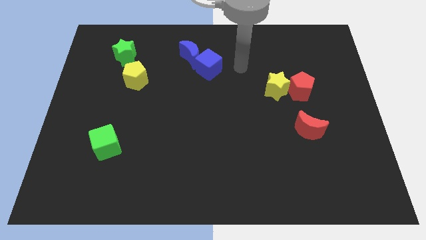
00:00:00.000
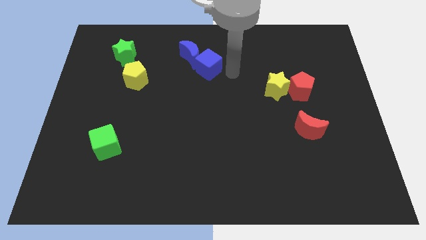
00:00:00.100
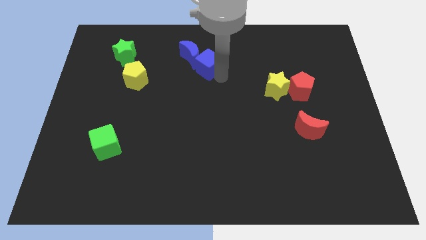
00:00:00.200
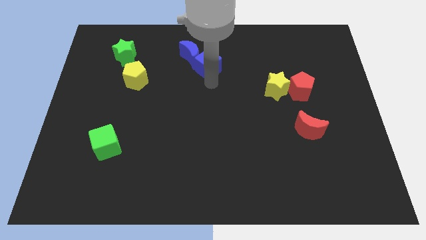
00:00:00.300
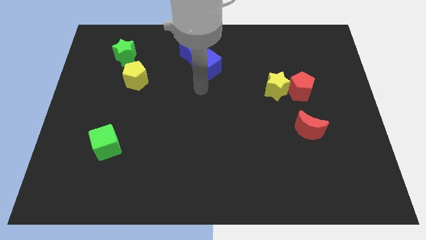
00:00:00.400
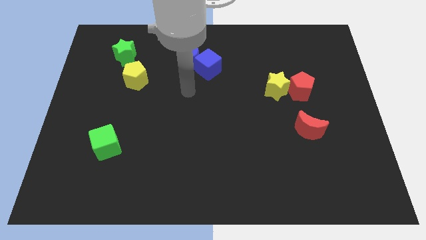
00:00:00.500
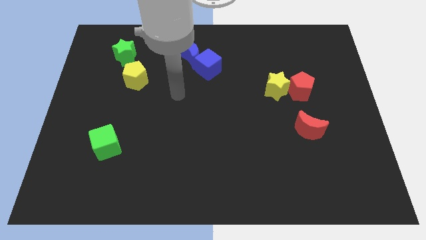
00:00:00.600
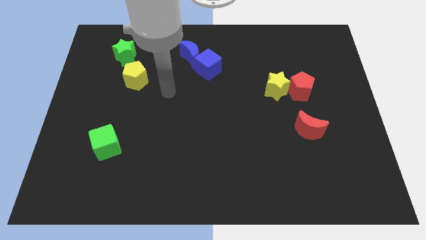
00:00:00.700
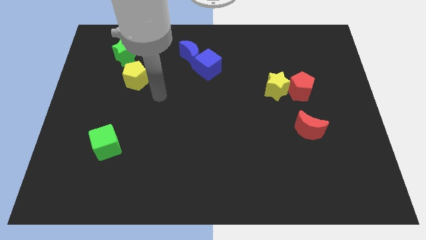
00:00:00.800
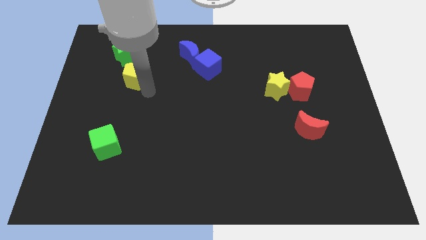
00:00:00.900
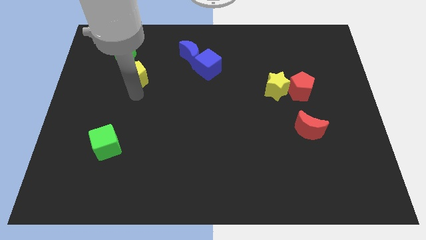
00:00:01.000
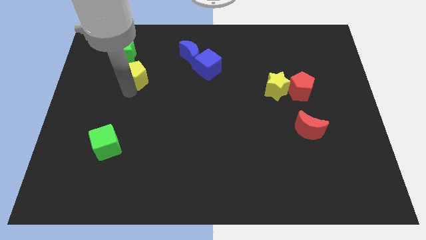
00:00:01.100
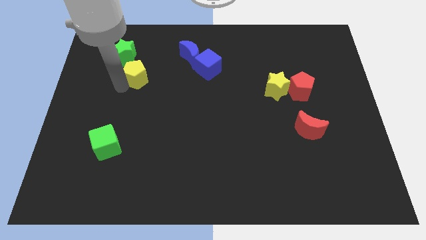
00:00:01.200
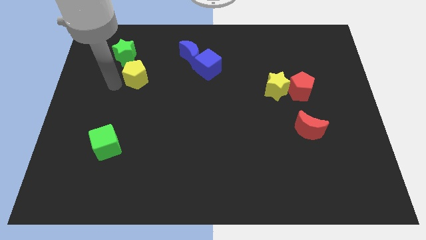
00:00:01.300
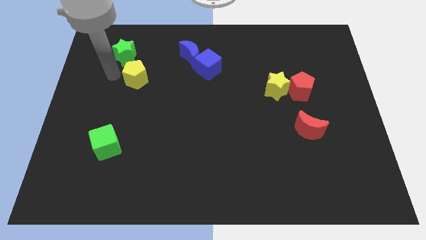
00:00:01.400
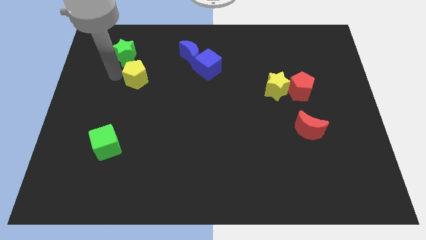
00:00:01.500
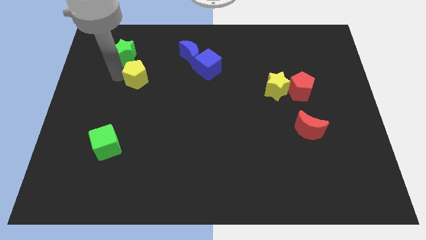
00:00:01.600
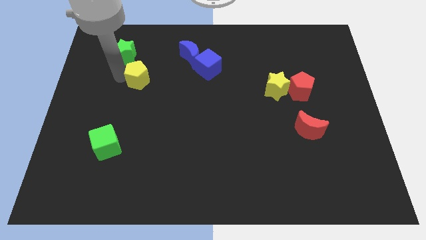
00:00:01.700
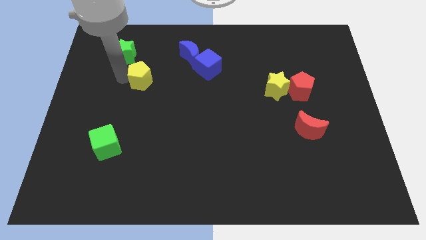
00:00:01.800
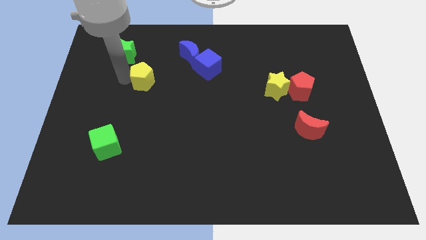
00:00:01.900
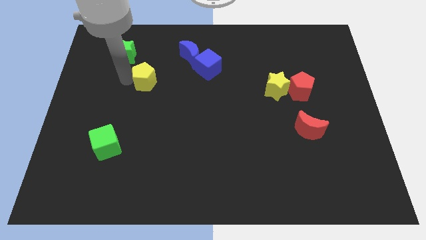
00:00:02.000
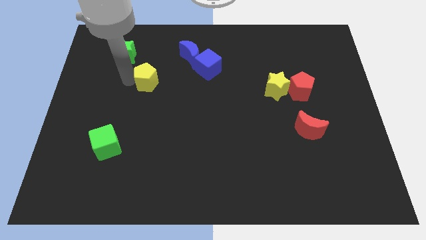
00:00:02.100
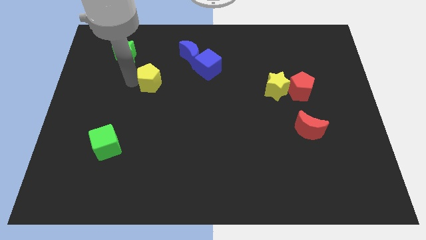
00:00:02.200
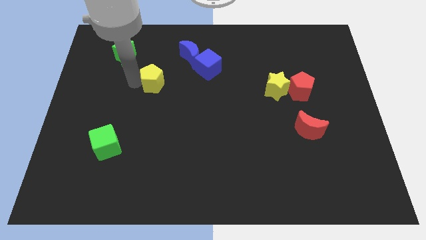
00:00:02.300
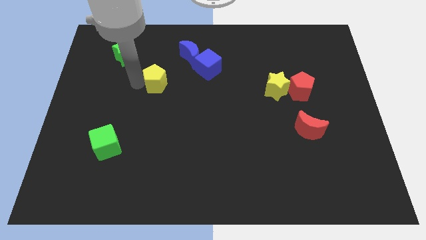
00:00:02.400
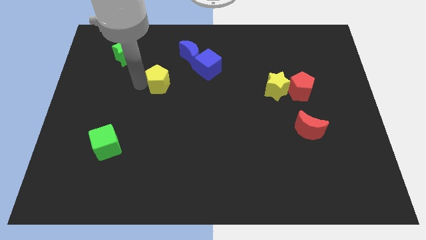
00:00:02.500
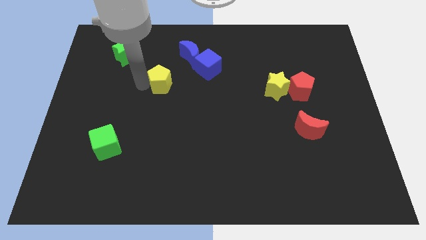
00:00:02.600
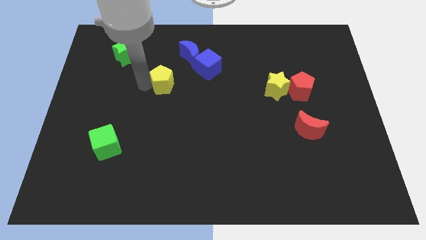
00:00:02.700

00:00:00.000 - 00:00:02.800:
slightly push the yellow pentagon to the right

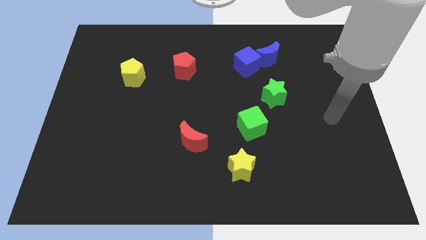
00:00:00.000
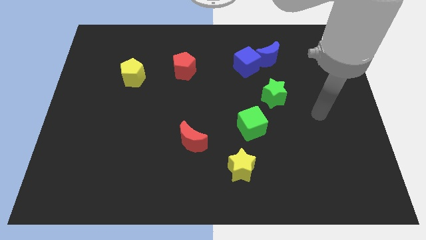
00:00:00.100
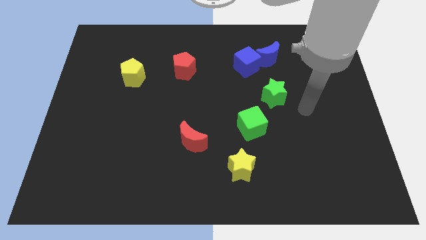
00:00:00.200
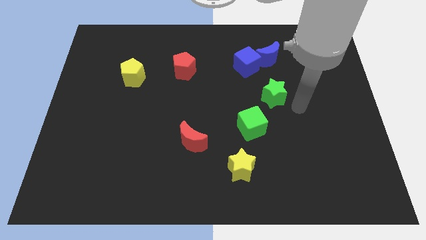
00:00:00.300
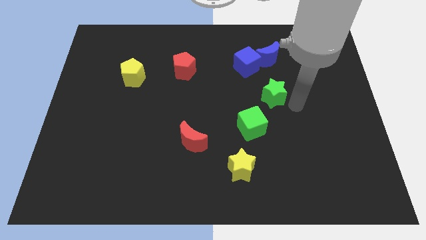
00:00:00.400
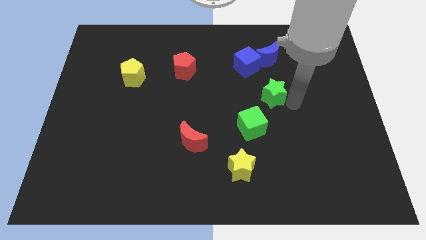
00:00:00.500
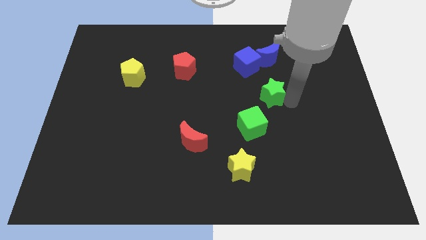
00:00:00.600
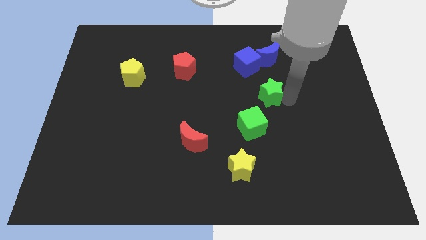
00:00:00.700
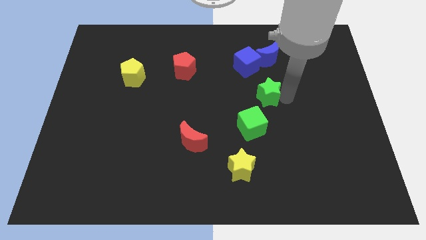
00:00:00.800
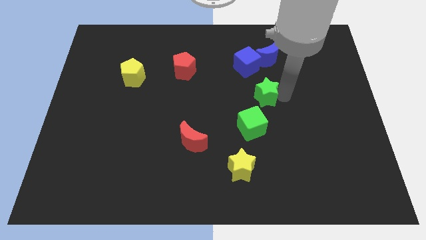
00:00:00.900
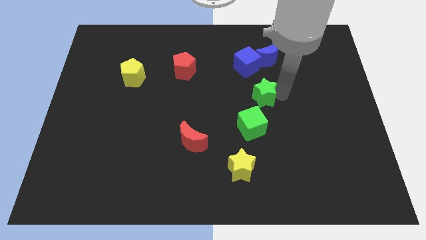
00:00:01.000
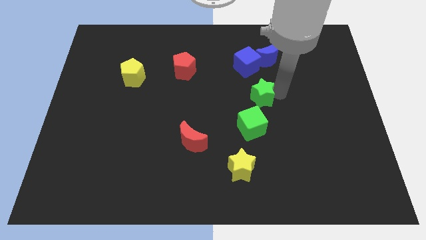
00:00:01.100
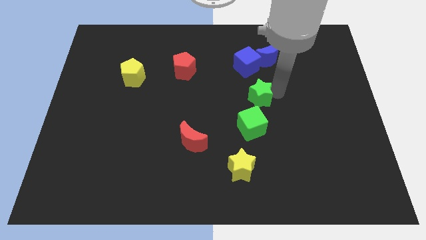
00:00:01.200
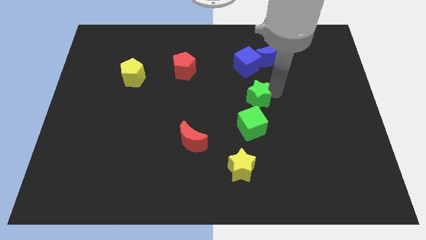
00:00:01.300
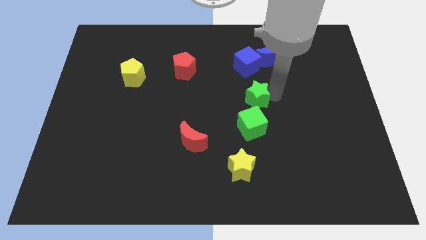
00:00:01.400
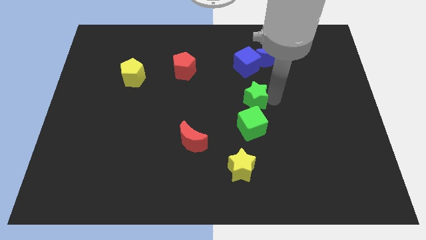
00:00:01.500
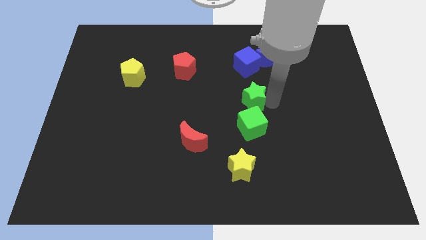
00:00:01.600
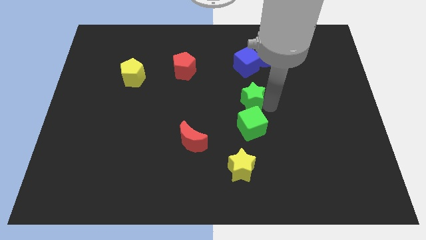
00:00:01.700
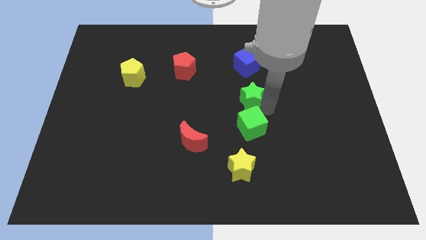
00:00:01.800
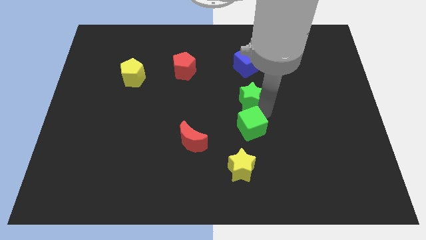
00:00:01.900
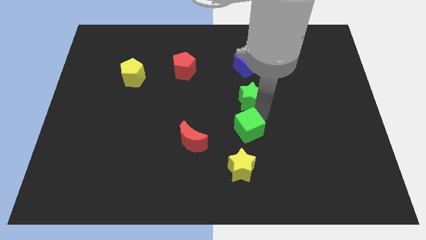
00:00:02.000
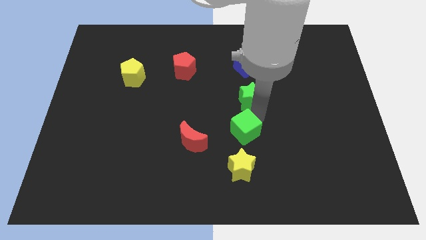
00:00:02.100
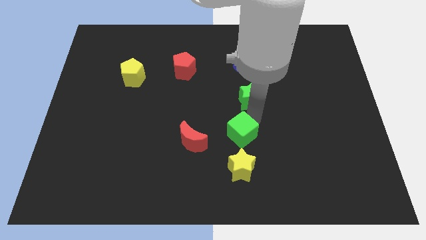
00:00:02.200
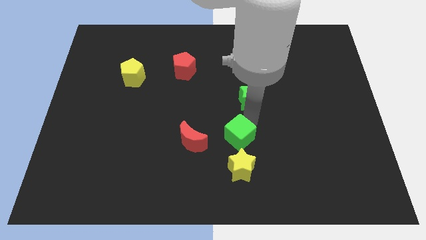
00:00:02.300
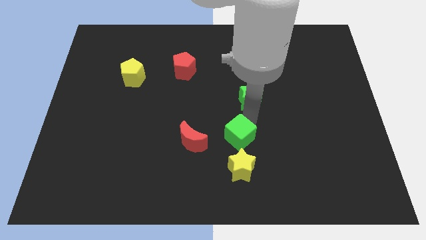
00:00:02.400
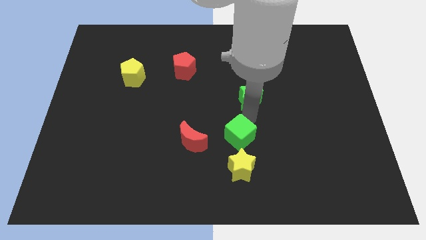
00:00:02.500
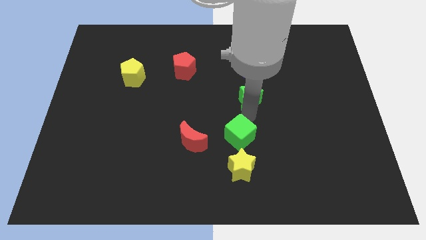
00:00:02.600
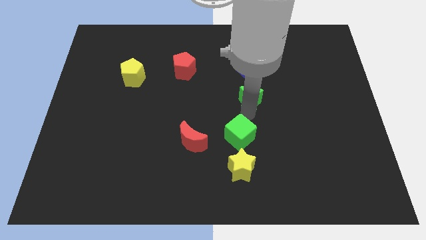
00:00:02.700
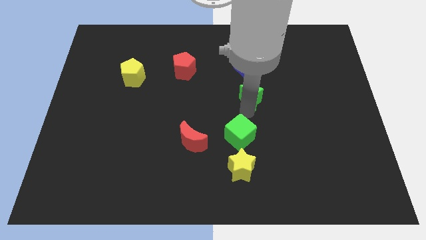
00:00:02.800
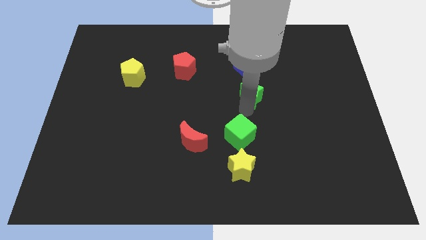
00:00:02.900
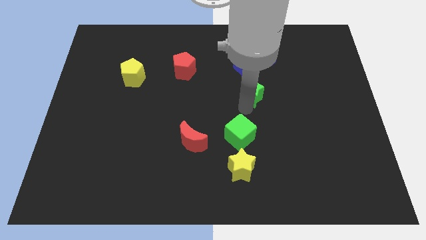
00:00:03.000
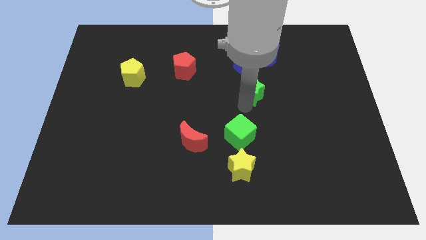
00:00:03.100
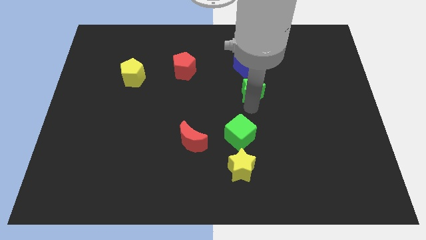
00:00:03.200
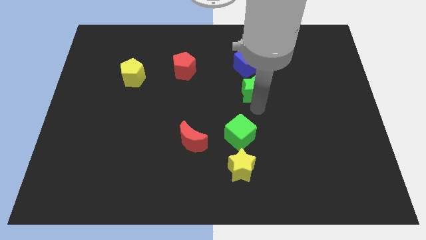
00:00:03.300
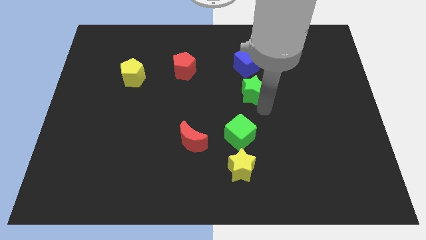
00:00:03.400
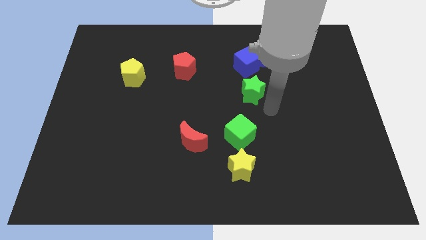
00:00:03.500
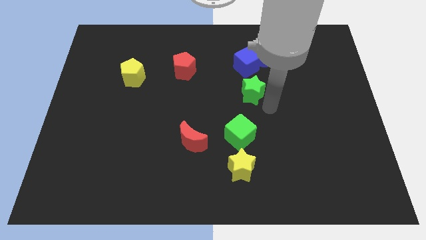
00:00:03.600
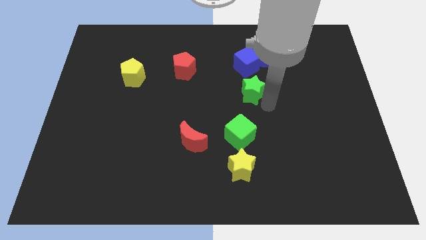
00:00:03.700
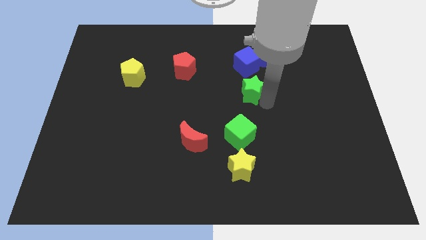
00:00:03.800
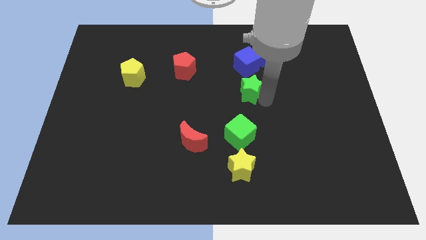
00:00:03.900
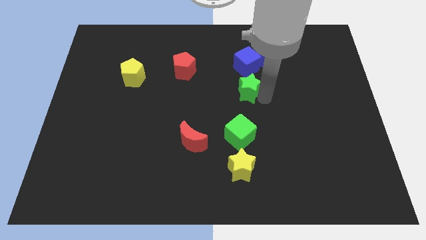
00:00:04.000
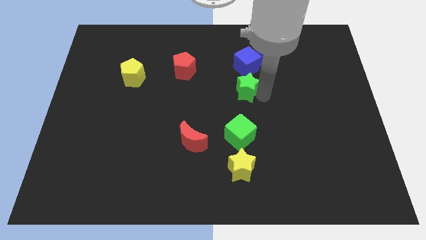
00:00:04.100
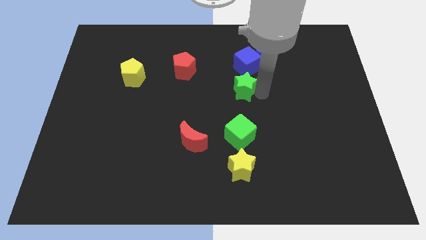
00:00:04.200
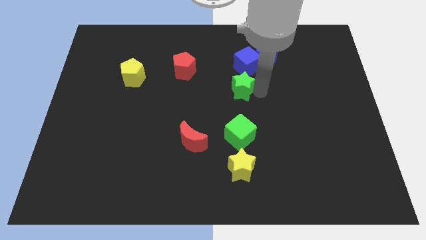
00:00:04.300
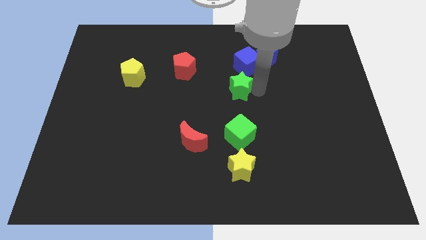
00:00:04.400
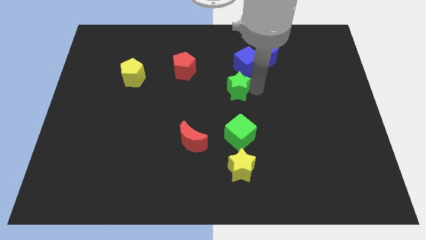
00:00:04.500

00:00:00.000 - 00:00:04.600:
move the green star upwards and to the left diagonally a bit
